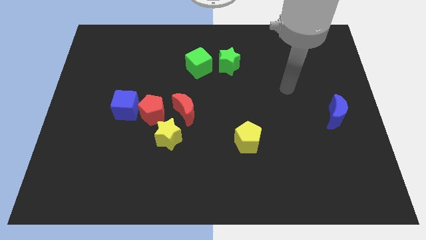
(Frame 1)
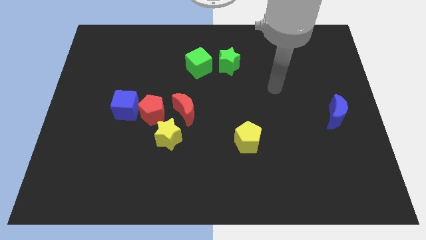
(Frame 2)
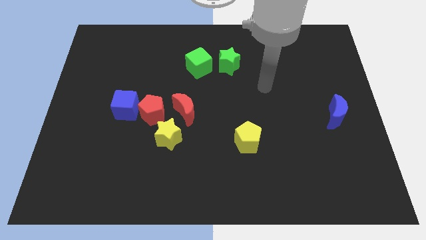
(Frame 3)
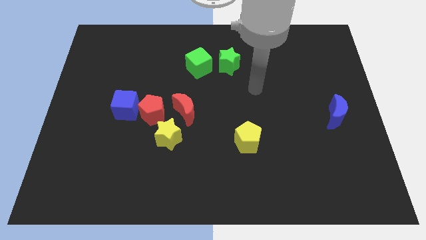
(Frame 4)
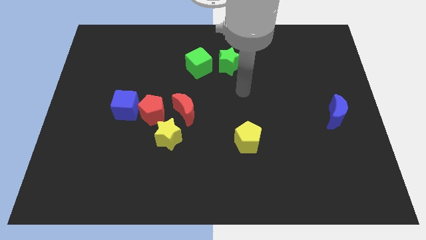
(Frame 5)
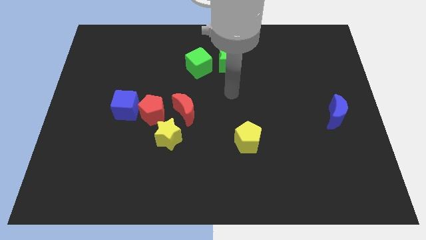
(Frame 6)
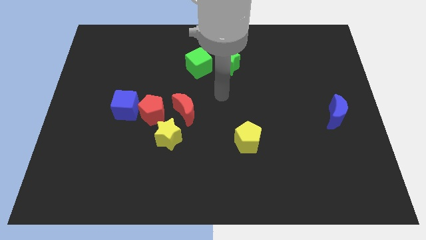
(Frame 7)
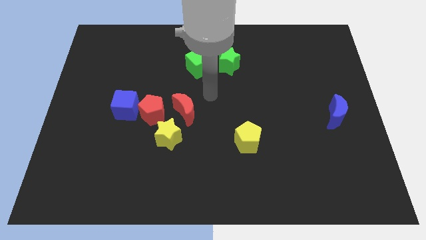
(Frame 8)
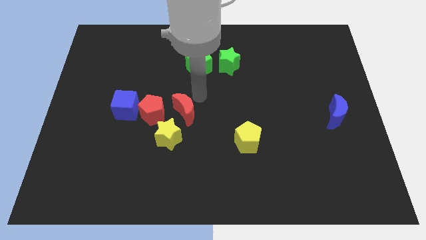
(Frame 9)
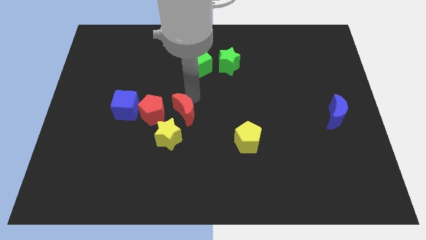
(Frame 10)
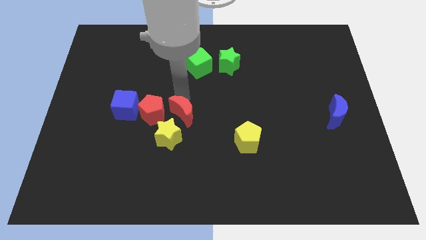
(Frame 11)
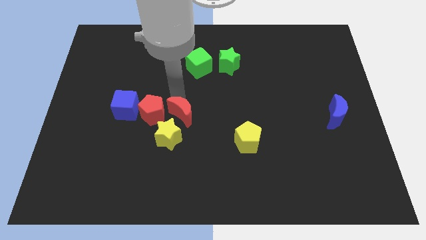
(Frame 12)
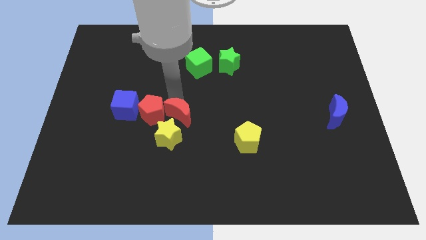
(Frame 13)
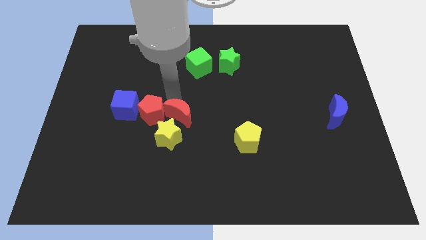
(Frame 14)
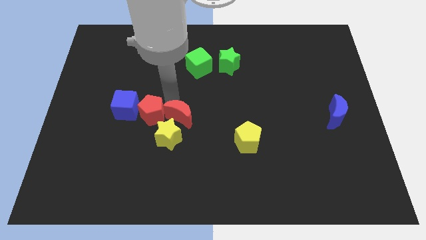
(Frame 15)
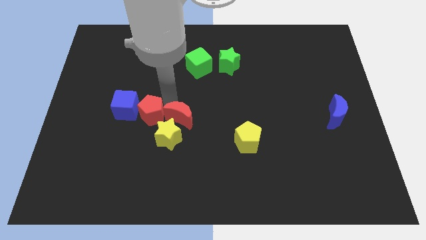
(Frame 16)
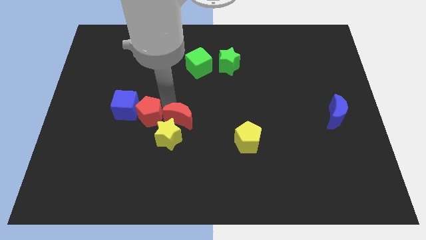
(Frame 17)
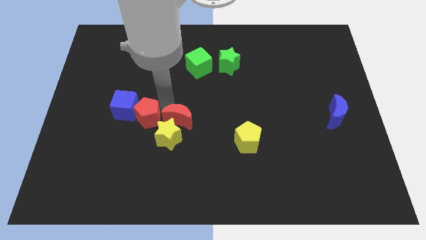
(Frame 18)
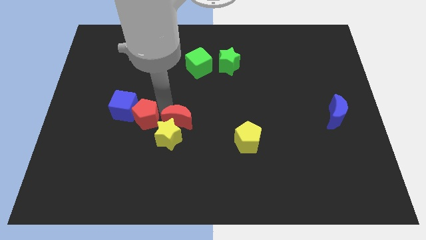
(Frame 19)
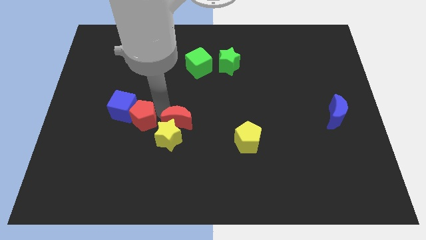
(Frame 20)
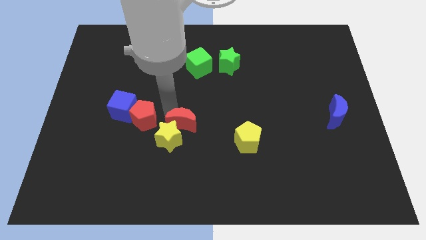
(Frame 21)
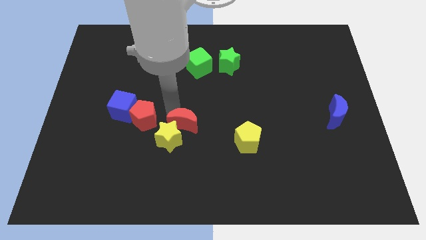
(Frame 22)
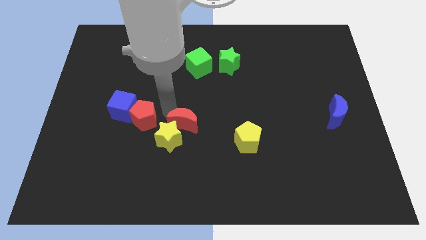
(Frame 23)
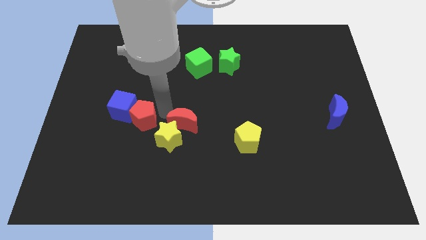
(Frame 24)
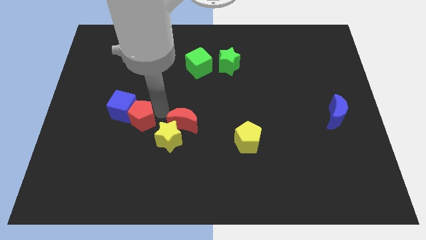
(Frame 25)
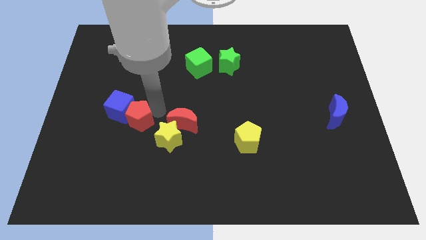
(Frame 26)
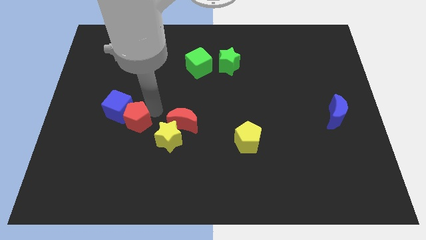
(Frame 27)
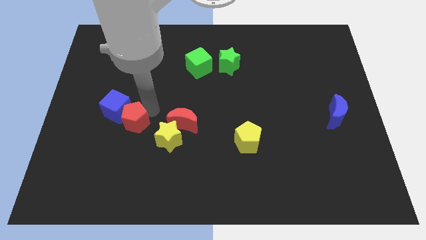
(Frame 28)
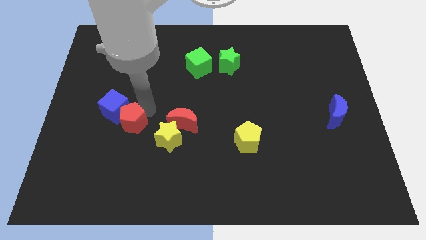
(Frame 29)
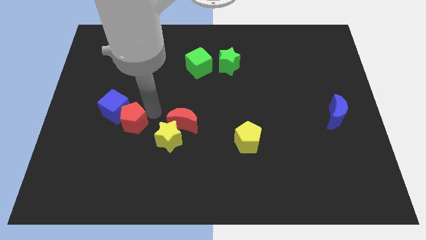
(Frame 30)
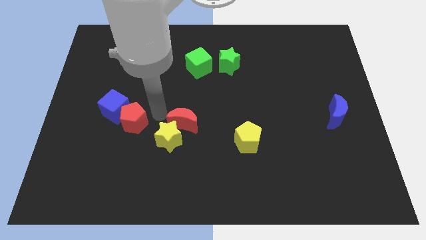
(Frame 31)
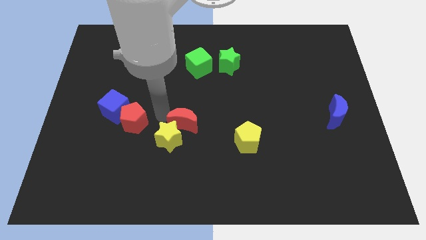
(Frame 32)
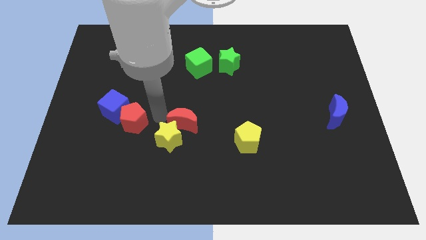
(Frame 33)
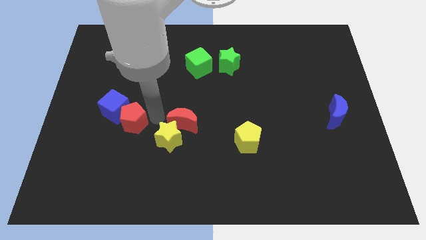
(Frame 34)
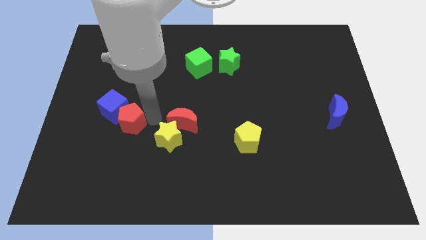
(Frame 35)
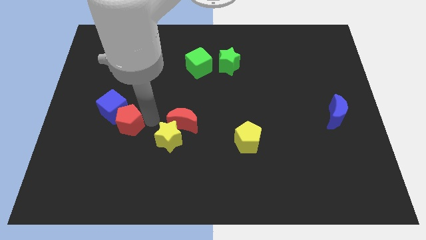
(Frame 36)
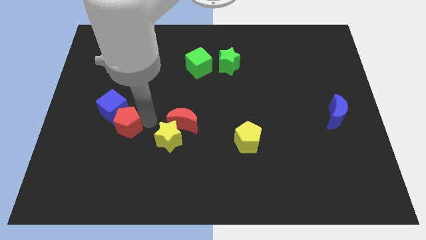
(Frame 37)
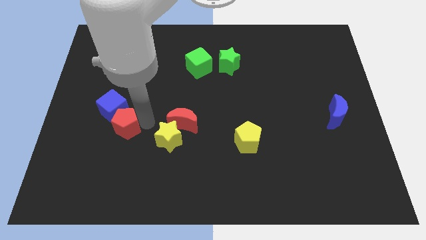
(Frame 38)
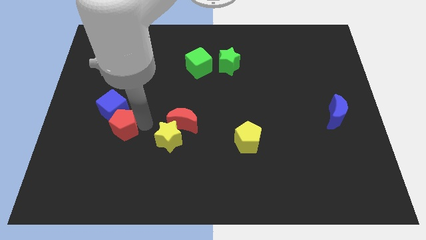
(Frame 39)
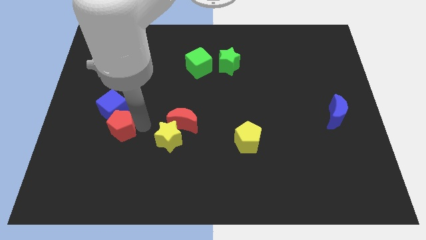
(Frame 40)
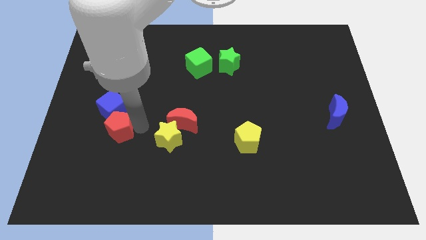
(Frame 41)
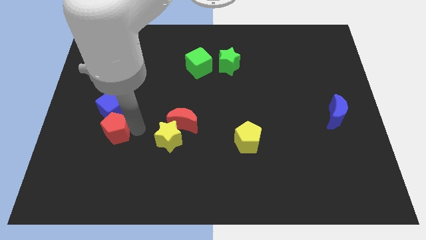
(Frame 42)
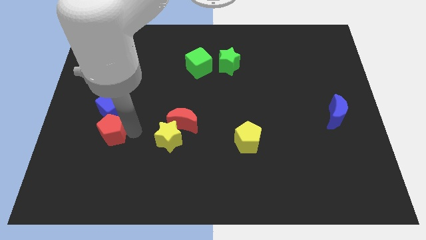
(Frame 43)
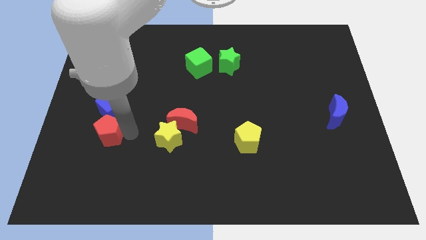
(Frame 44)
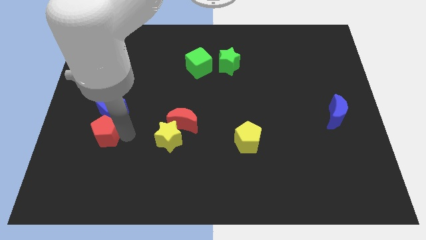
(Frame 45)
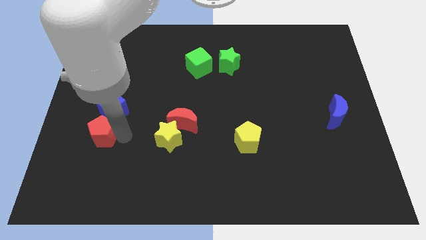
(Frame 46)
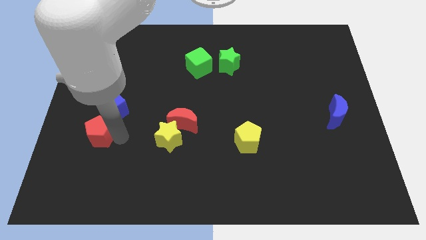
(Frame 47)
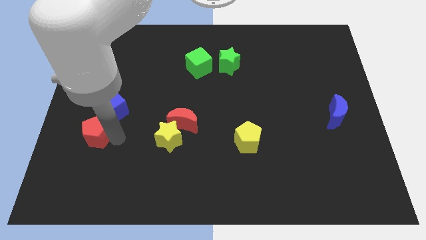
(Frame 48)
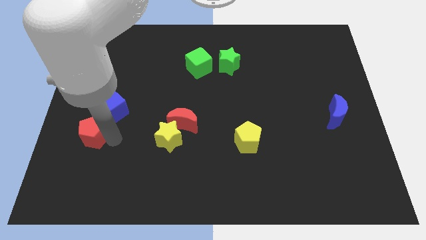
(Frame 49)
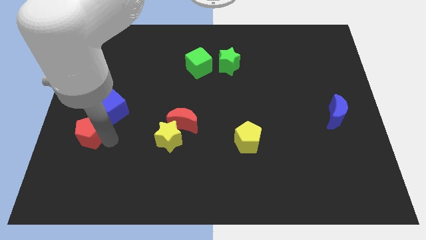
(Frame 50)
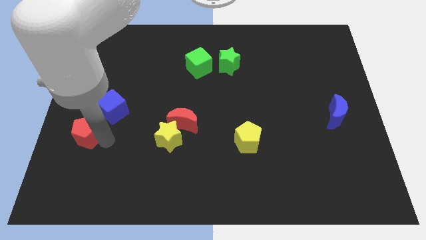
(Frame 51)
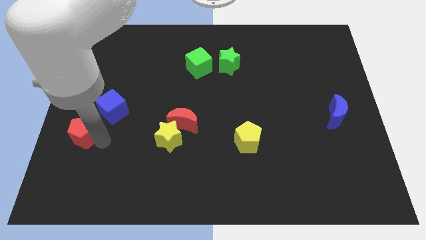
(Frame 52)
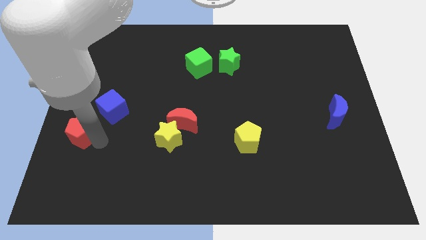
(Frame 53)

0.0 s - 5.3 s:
put the red pentagon to the left side of the board

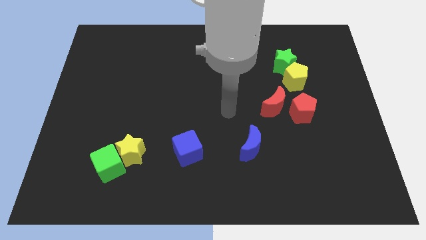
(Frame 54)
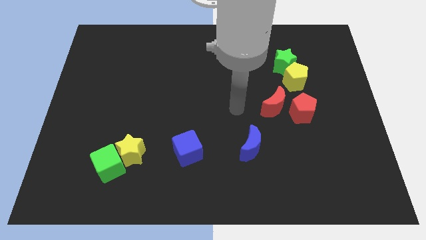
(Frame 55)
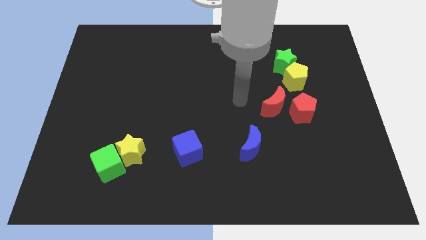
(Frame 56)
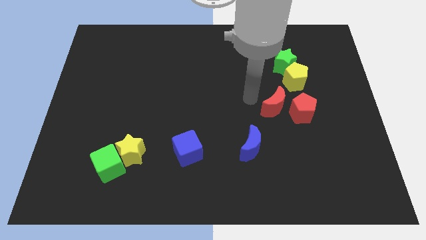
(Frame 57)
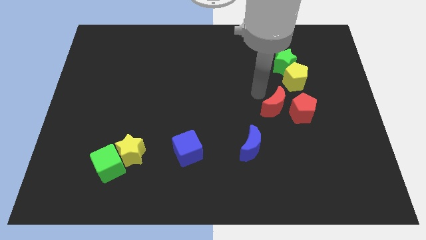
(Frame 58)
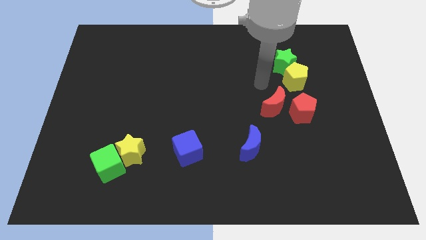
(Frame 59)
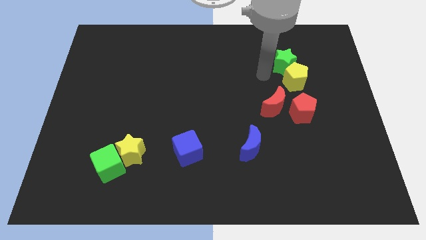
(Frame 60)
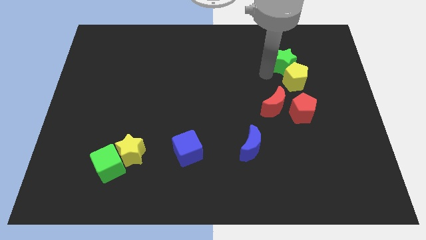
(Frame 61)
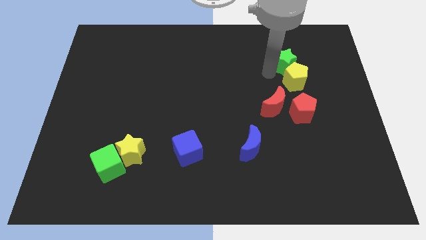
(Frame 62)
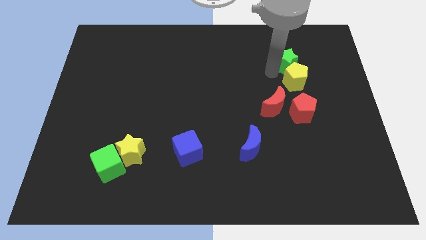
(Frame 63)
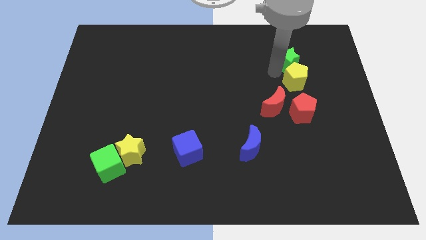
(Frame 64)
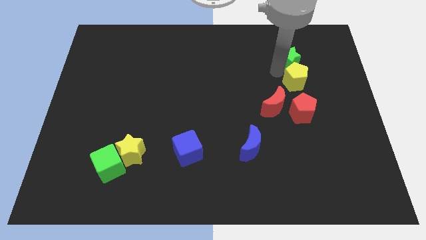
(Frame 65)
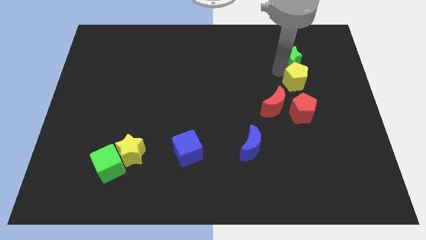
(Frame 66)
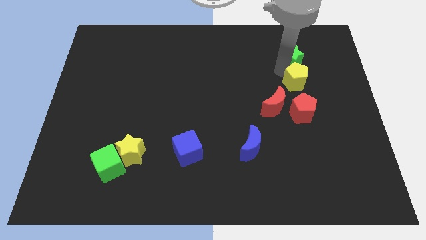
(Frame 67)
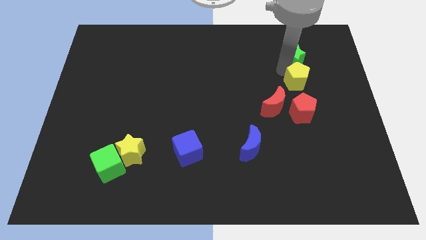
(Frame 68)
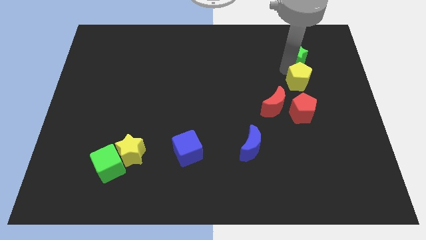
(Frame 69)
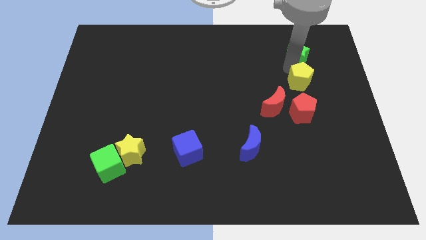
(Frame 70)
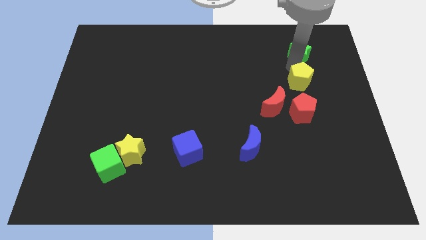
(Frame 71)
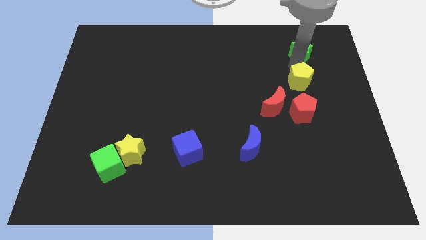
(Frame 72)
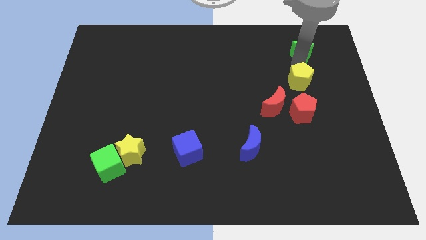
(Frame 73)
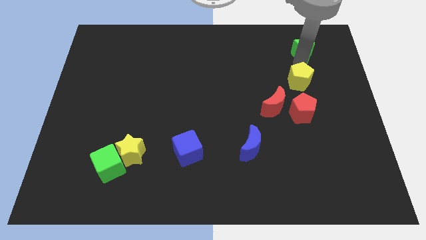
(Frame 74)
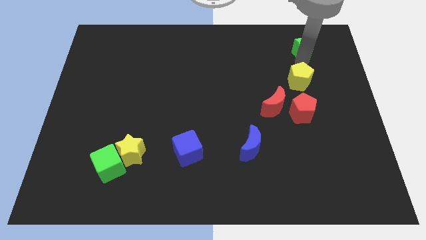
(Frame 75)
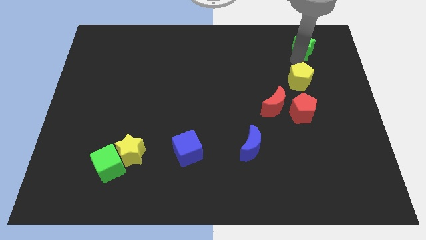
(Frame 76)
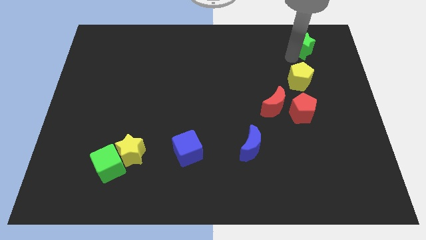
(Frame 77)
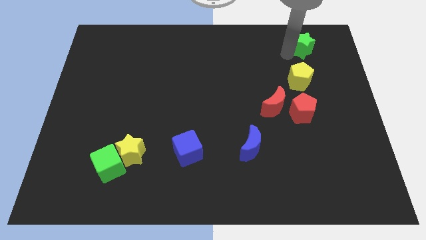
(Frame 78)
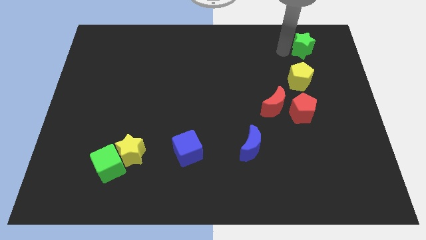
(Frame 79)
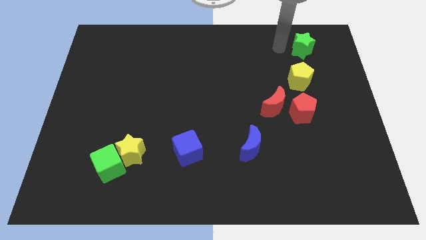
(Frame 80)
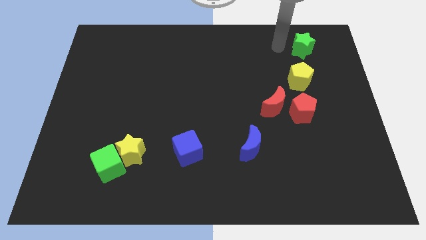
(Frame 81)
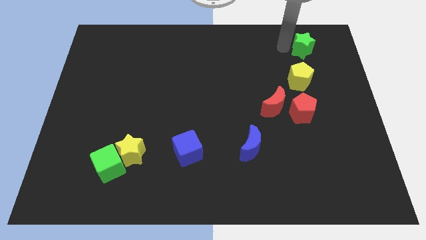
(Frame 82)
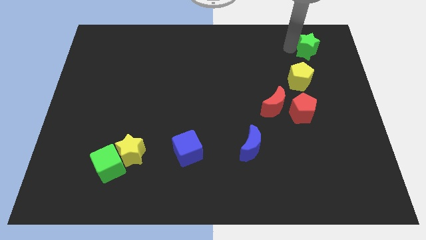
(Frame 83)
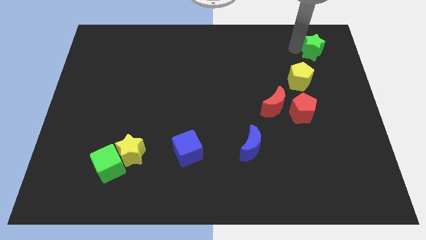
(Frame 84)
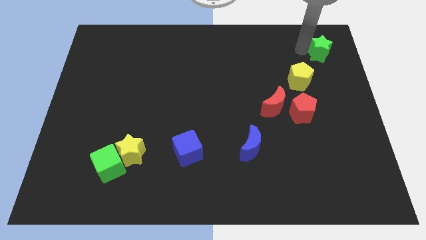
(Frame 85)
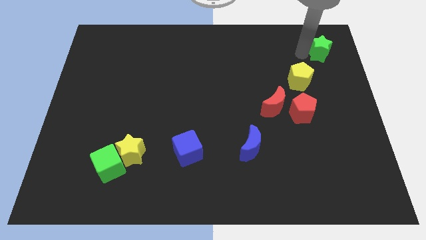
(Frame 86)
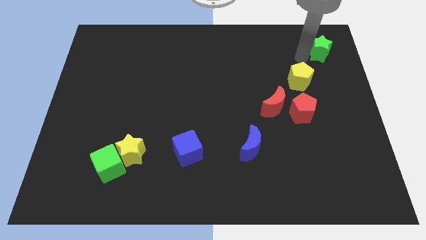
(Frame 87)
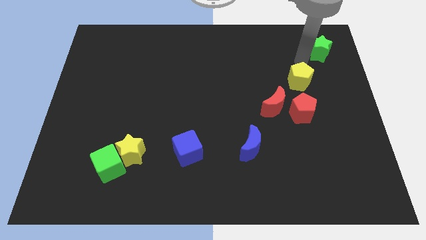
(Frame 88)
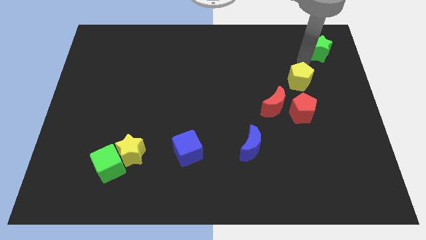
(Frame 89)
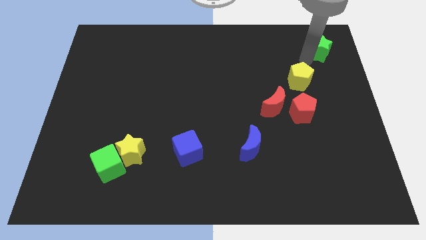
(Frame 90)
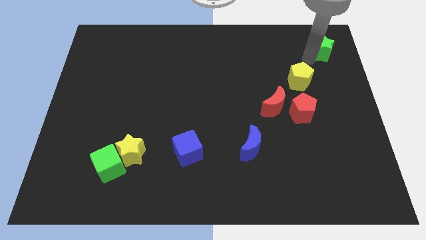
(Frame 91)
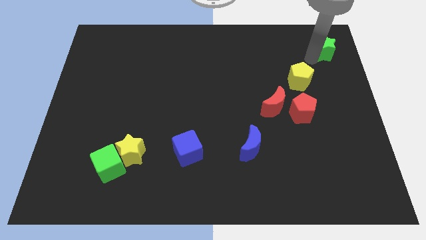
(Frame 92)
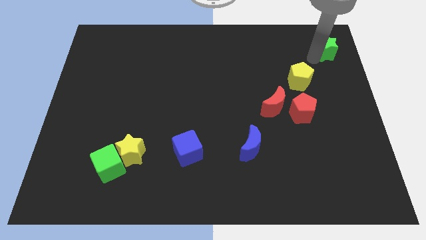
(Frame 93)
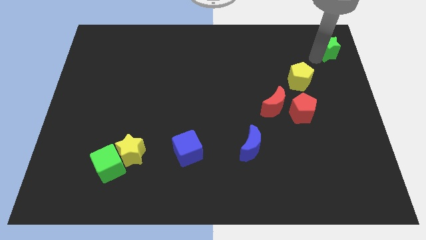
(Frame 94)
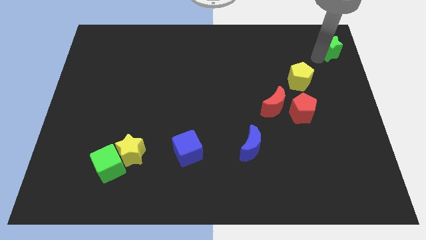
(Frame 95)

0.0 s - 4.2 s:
push the green star to the top right corner
